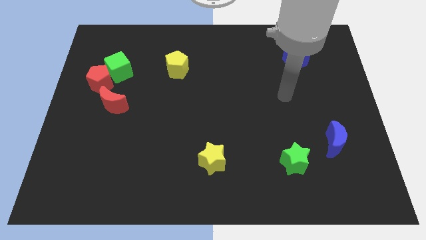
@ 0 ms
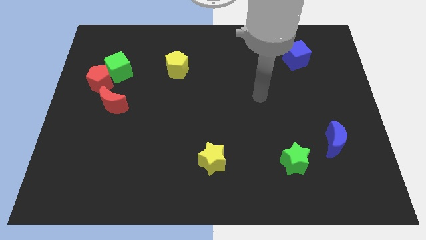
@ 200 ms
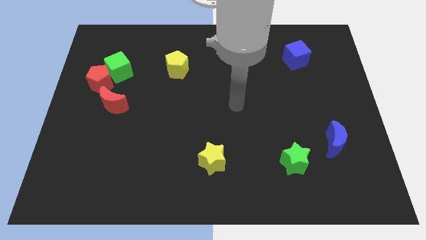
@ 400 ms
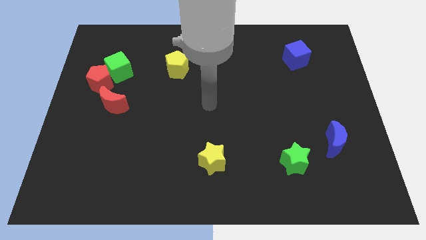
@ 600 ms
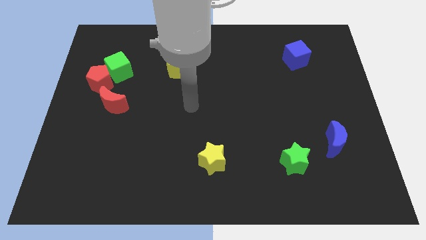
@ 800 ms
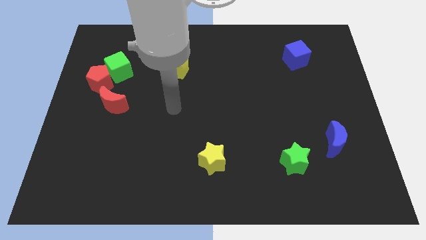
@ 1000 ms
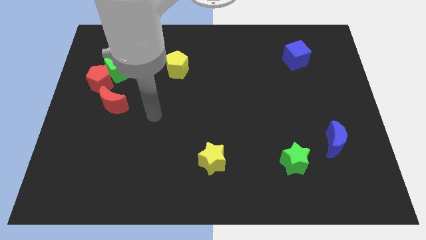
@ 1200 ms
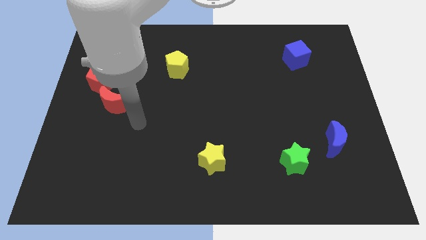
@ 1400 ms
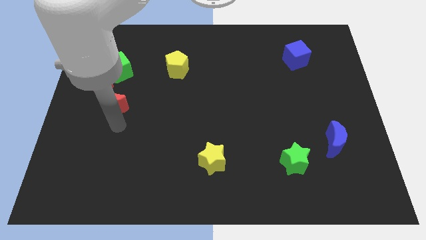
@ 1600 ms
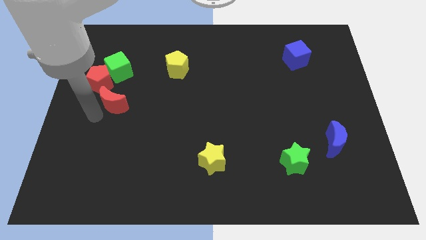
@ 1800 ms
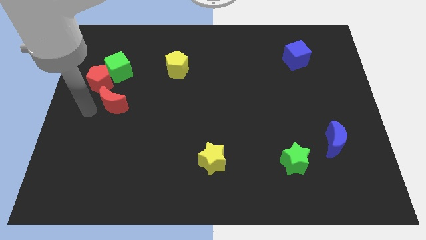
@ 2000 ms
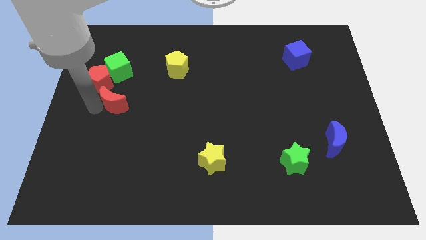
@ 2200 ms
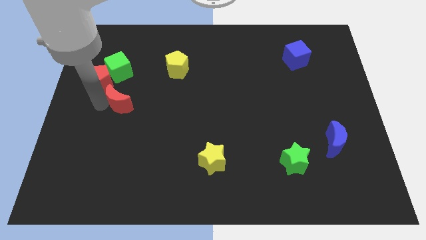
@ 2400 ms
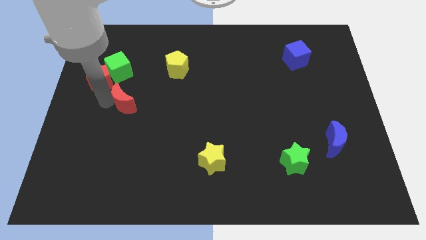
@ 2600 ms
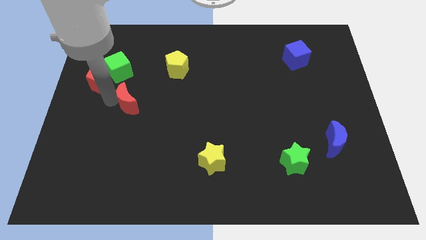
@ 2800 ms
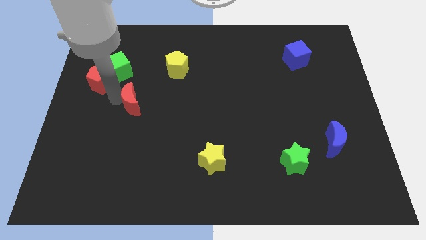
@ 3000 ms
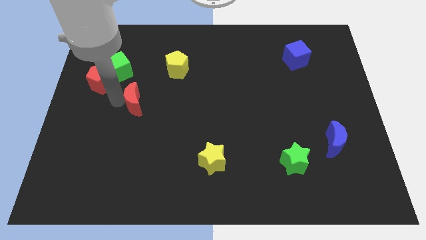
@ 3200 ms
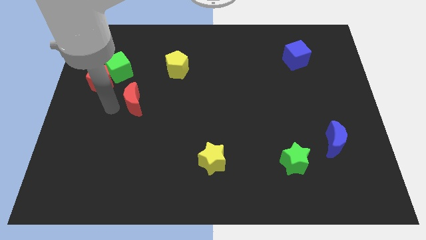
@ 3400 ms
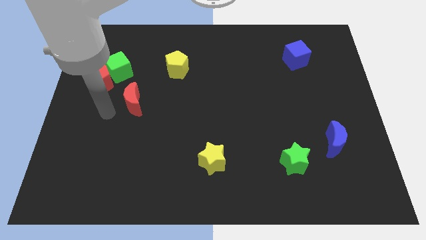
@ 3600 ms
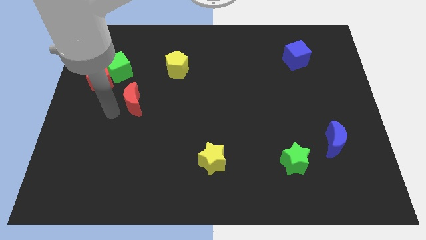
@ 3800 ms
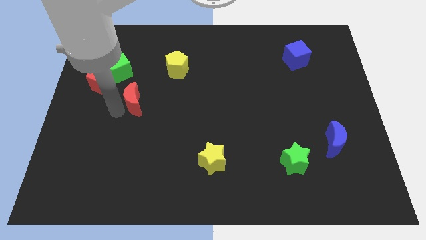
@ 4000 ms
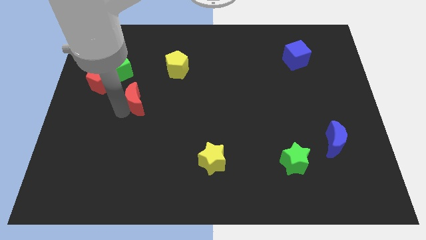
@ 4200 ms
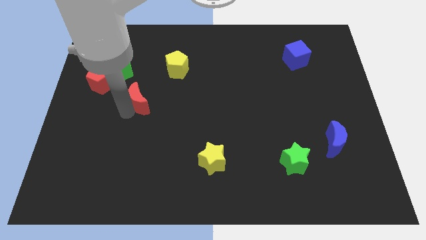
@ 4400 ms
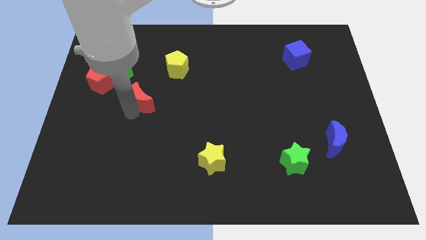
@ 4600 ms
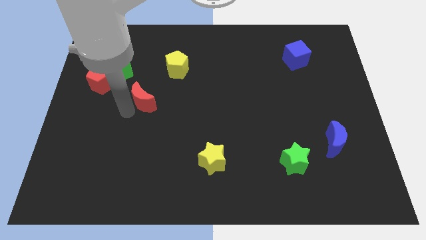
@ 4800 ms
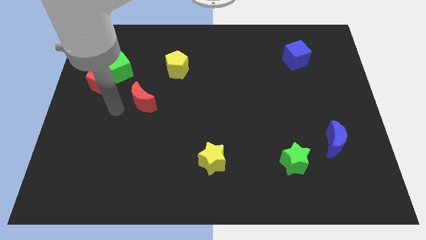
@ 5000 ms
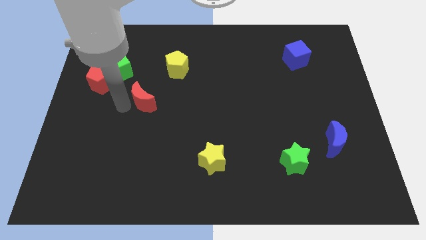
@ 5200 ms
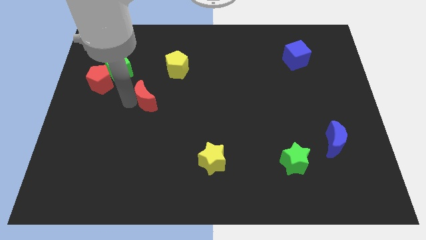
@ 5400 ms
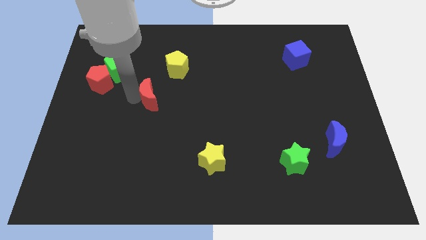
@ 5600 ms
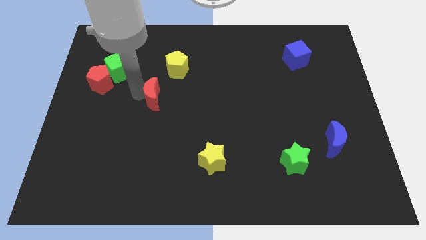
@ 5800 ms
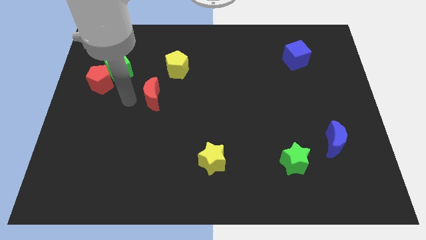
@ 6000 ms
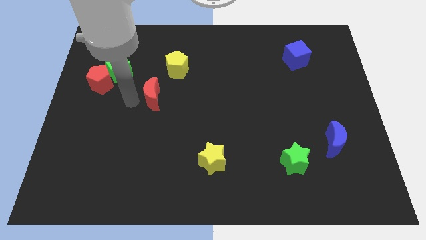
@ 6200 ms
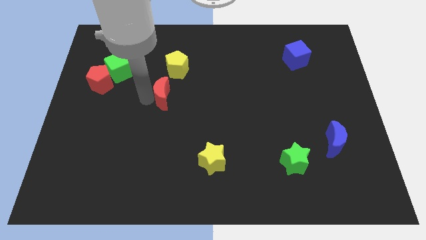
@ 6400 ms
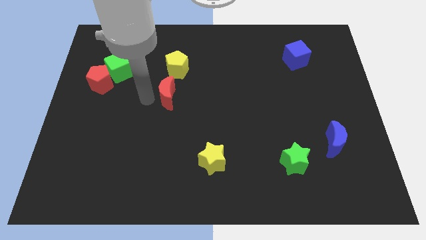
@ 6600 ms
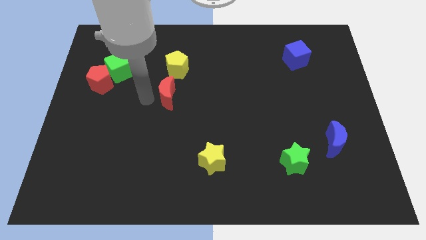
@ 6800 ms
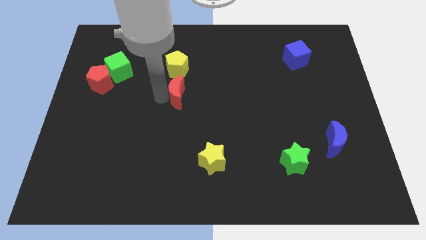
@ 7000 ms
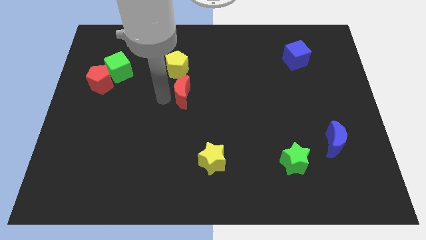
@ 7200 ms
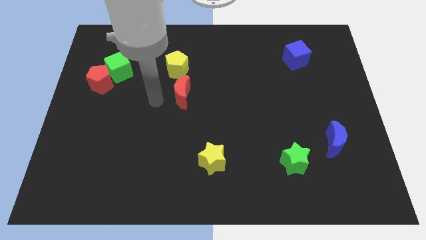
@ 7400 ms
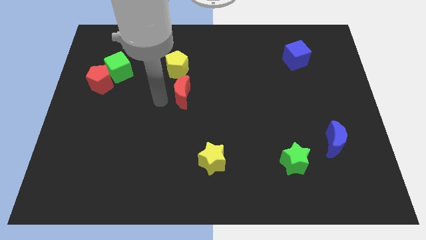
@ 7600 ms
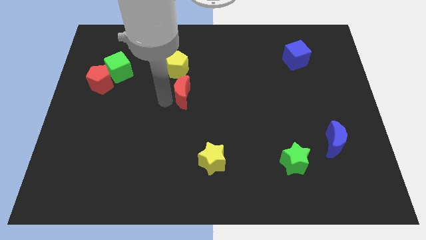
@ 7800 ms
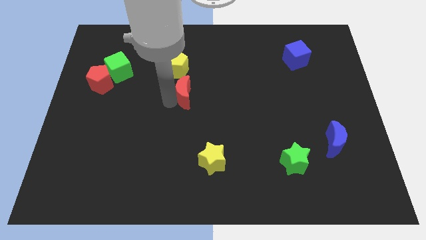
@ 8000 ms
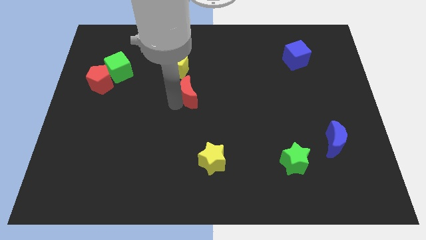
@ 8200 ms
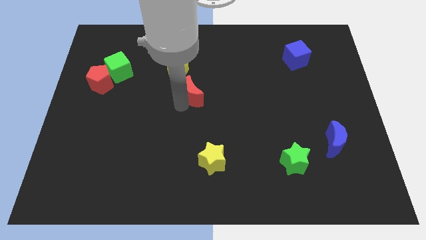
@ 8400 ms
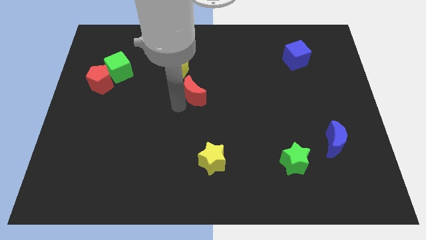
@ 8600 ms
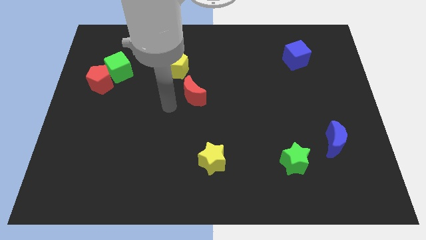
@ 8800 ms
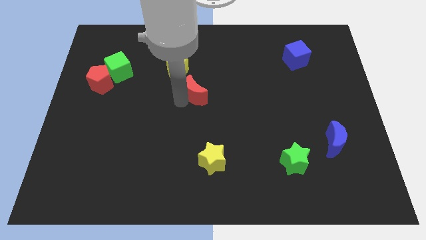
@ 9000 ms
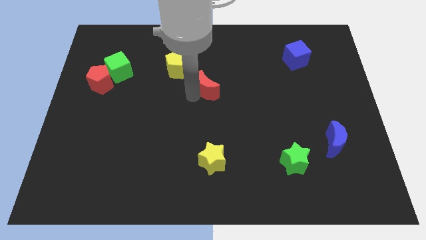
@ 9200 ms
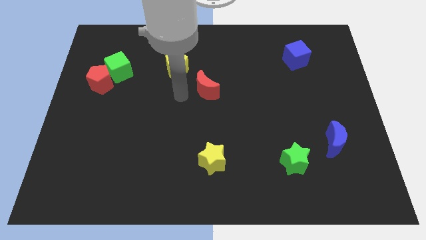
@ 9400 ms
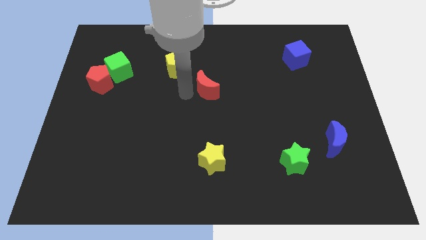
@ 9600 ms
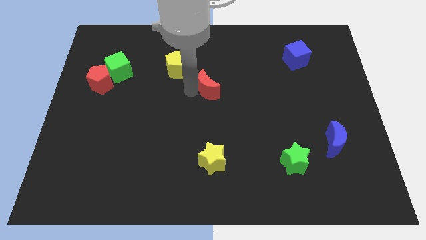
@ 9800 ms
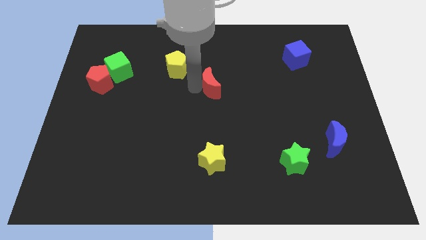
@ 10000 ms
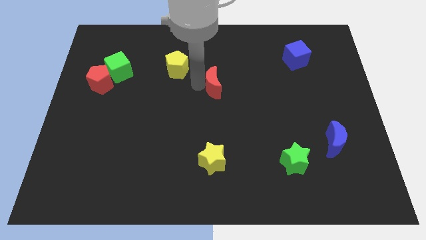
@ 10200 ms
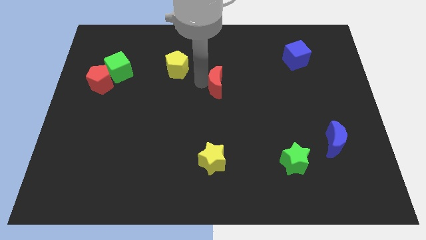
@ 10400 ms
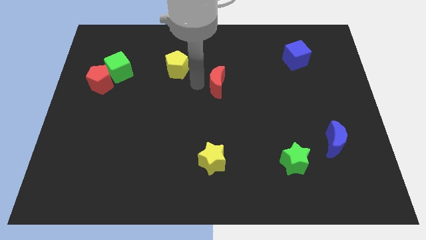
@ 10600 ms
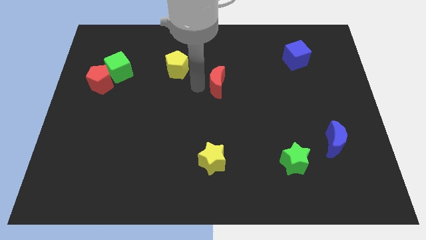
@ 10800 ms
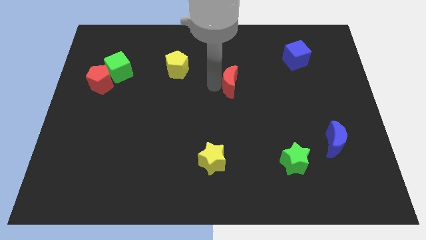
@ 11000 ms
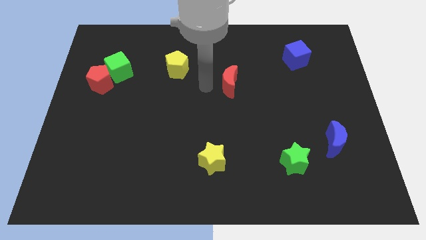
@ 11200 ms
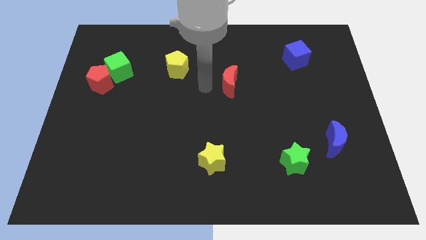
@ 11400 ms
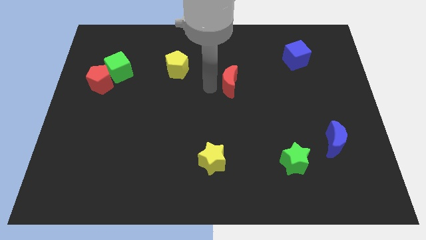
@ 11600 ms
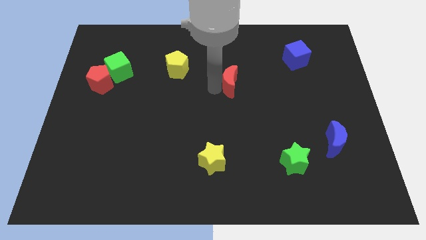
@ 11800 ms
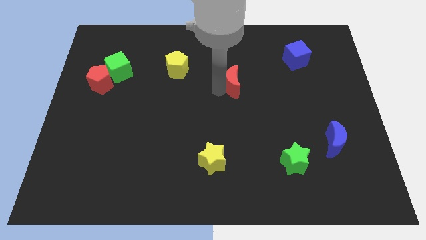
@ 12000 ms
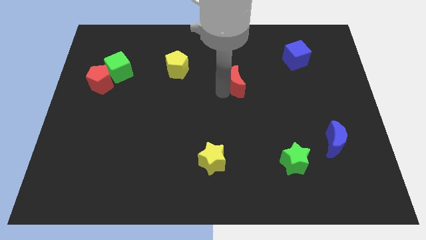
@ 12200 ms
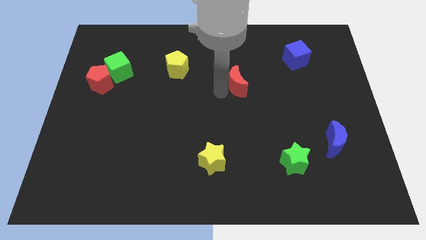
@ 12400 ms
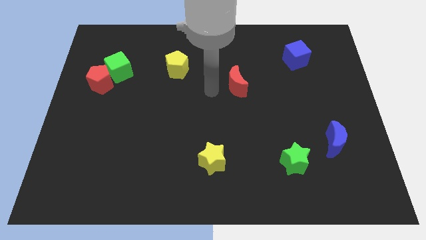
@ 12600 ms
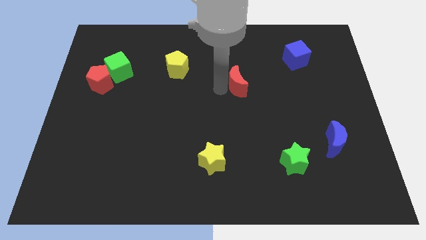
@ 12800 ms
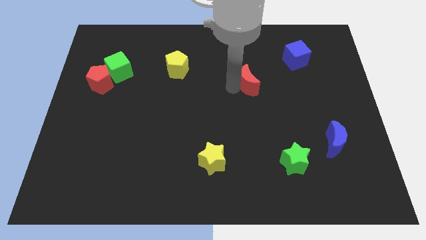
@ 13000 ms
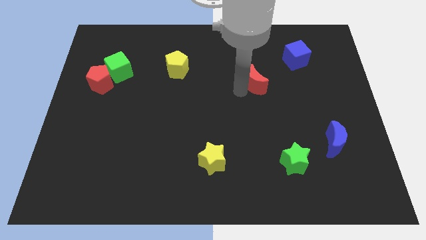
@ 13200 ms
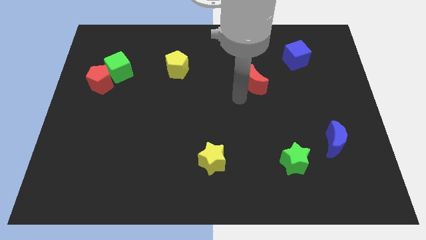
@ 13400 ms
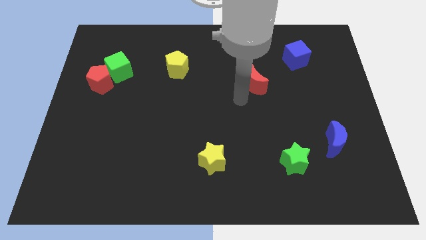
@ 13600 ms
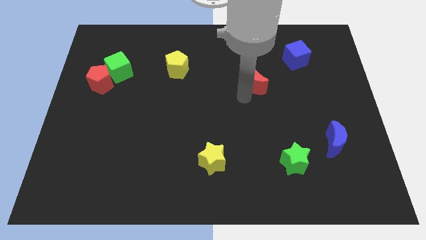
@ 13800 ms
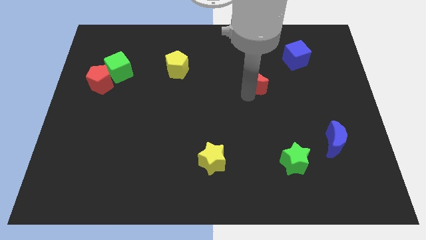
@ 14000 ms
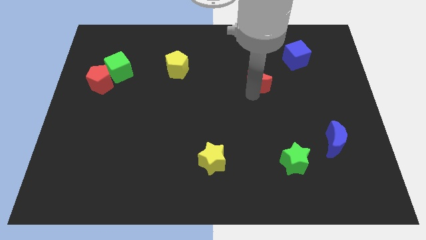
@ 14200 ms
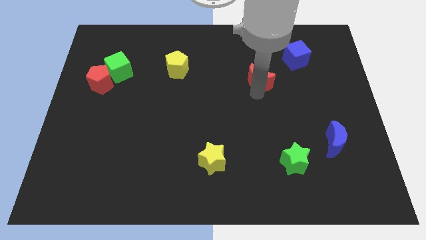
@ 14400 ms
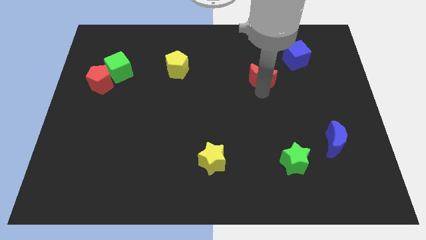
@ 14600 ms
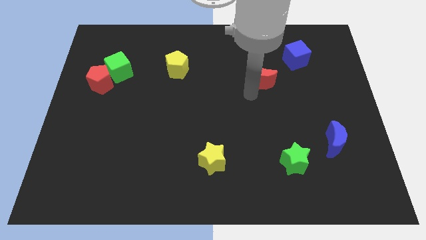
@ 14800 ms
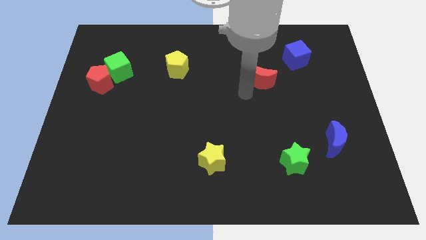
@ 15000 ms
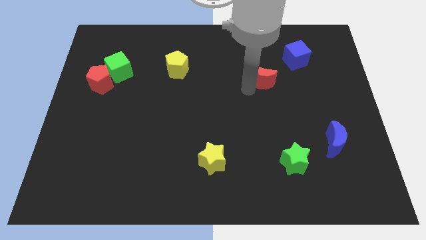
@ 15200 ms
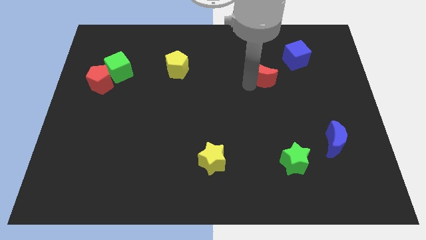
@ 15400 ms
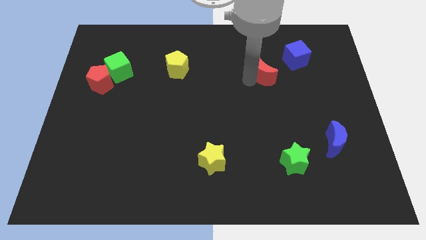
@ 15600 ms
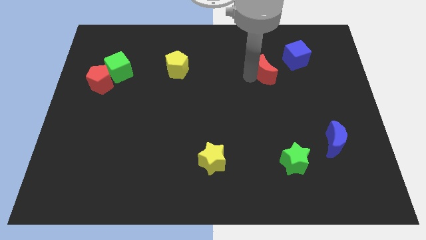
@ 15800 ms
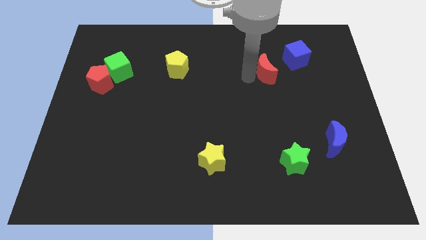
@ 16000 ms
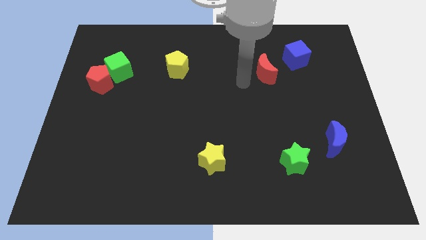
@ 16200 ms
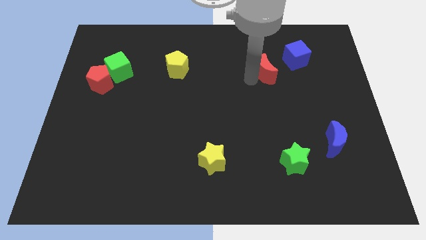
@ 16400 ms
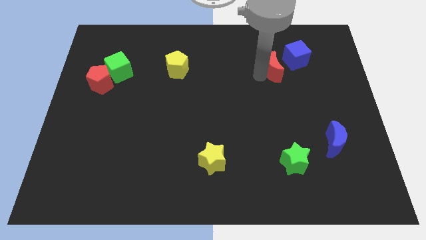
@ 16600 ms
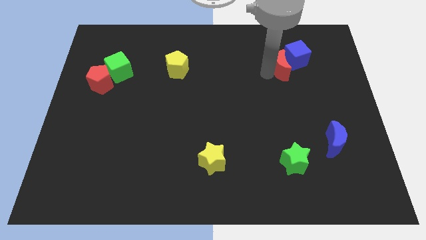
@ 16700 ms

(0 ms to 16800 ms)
push the red moon to the blue cube
